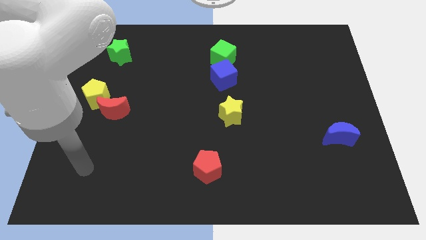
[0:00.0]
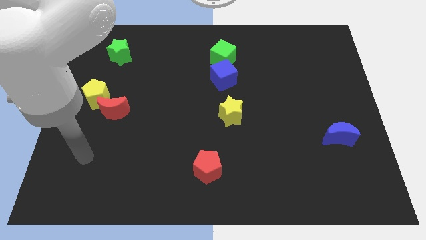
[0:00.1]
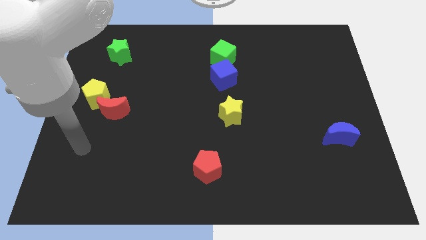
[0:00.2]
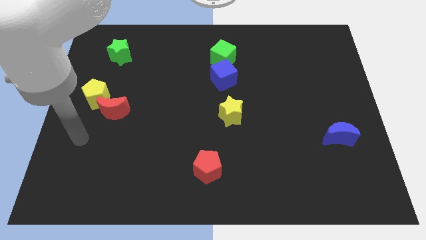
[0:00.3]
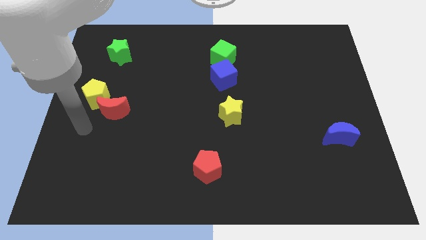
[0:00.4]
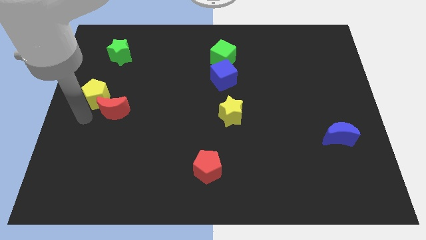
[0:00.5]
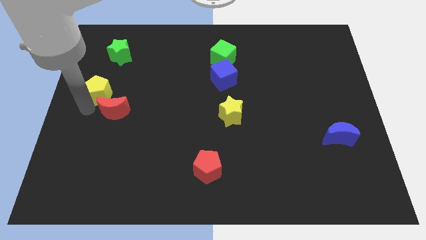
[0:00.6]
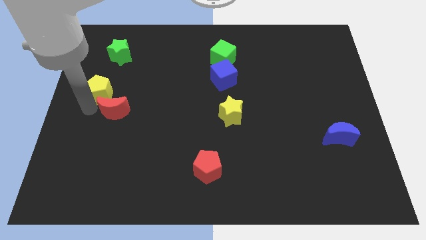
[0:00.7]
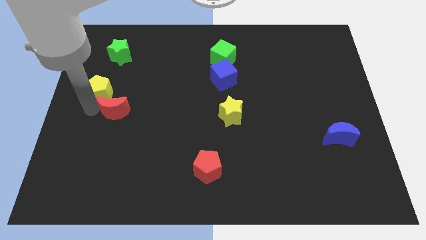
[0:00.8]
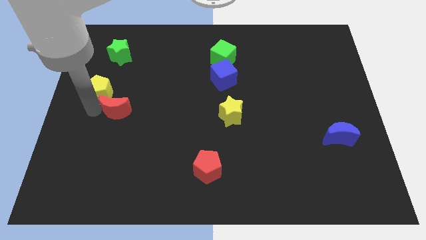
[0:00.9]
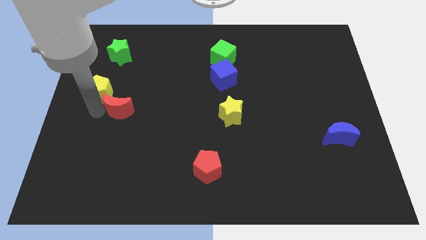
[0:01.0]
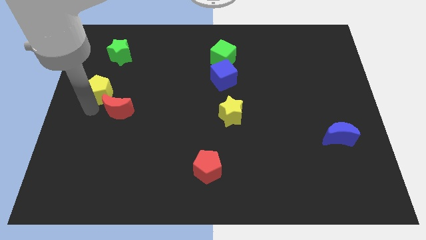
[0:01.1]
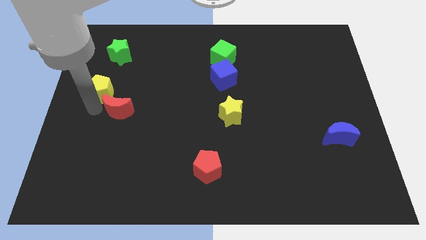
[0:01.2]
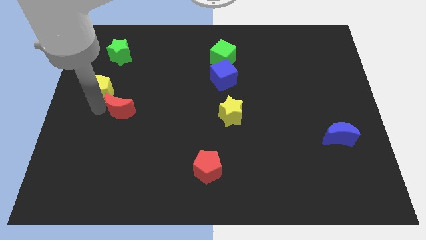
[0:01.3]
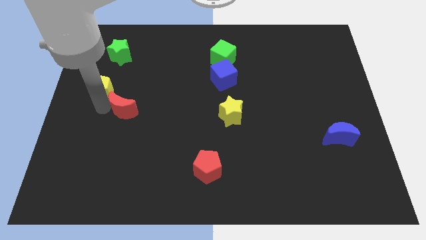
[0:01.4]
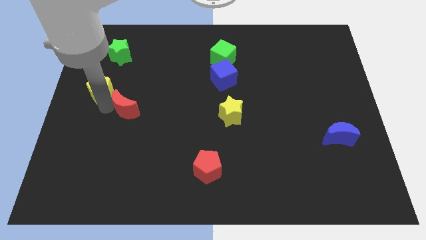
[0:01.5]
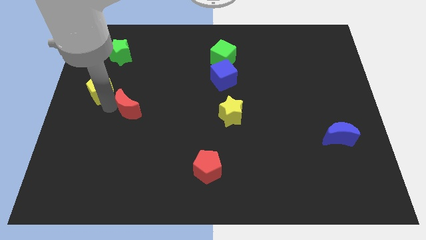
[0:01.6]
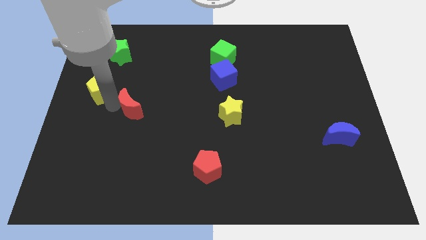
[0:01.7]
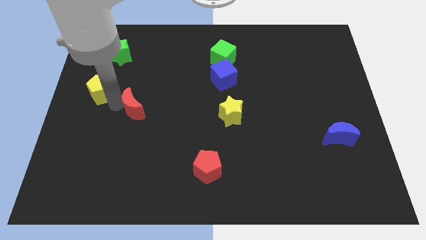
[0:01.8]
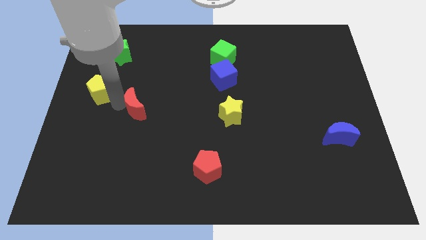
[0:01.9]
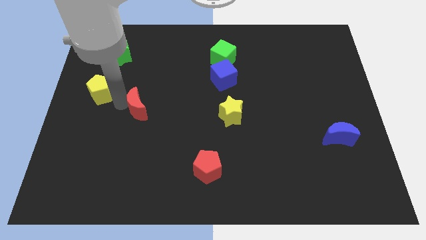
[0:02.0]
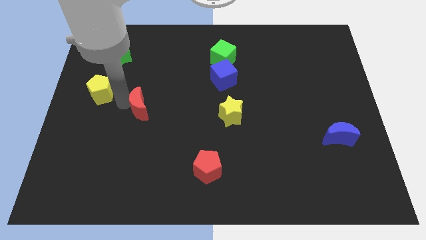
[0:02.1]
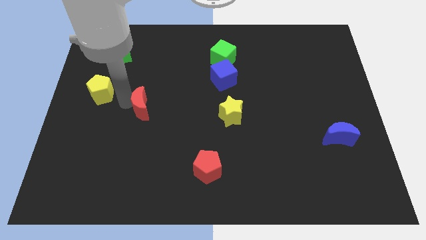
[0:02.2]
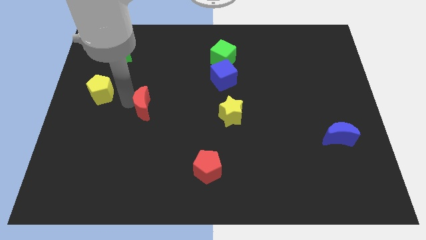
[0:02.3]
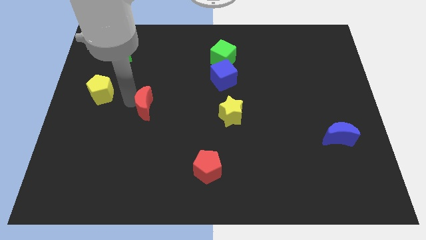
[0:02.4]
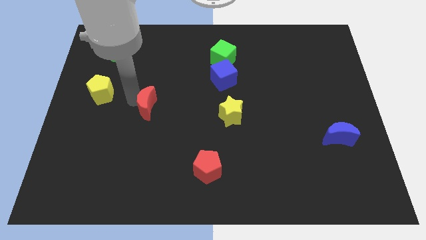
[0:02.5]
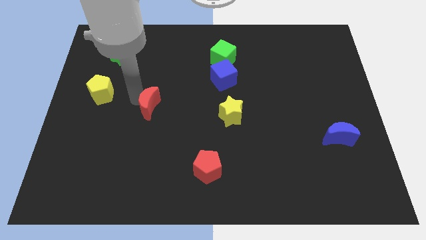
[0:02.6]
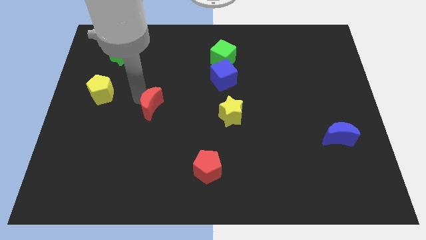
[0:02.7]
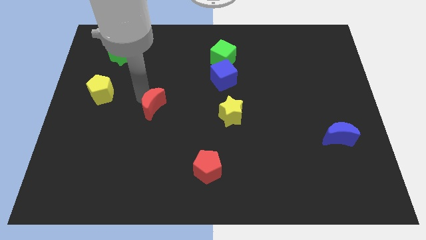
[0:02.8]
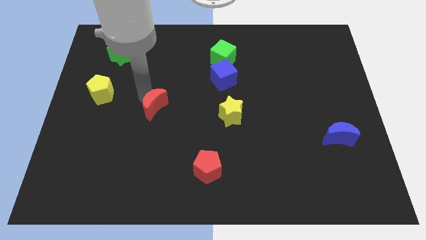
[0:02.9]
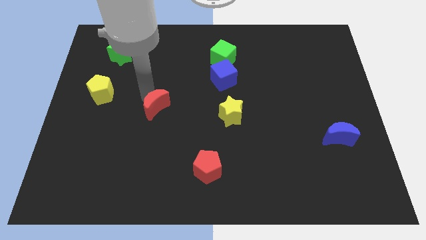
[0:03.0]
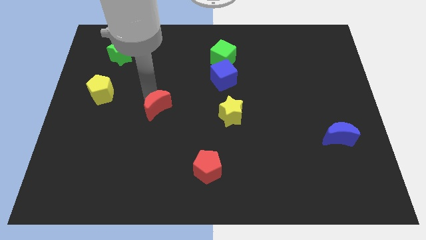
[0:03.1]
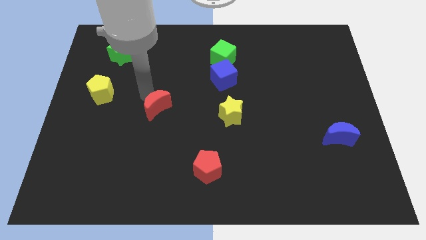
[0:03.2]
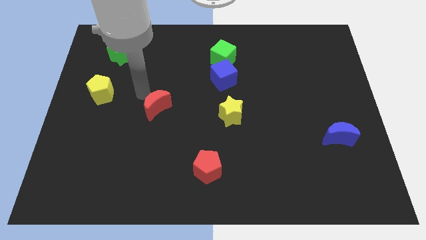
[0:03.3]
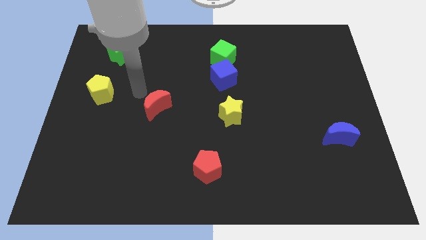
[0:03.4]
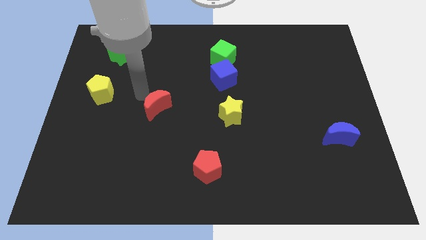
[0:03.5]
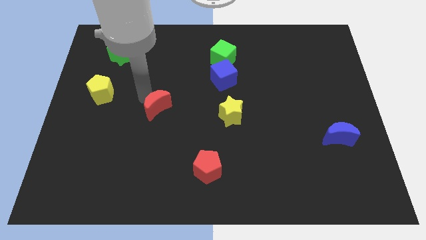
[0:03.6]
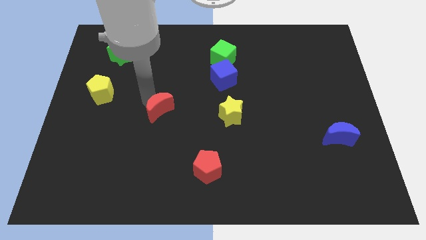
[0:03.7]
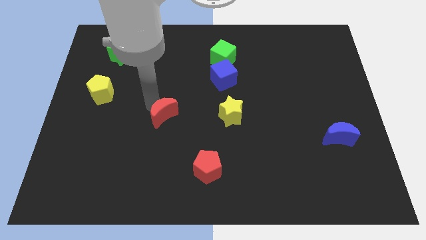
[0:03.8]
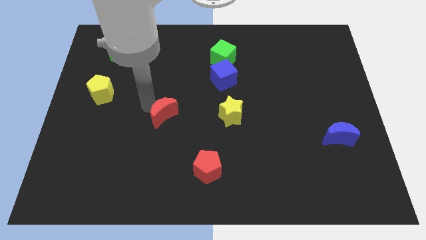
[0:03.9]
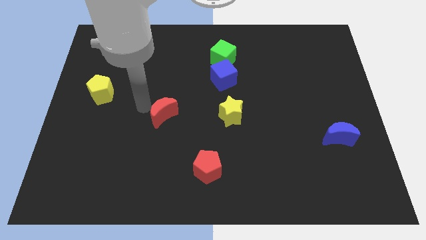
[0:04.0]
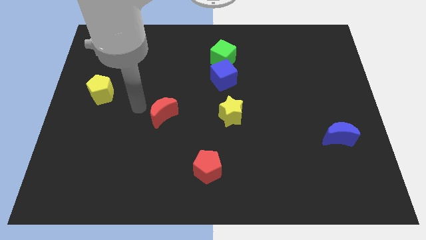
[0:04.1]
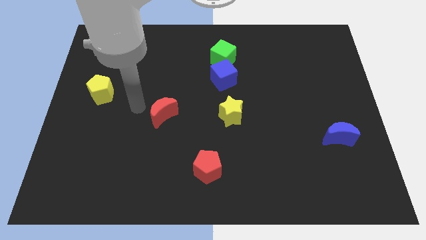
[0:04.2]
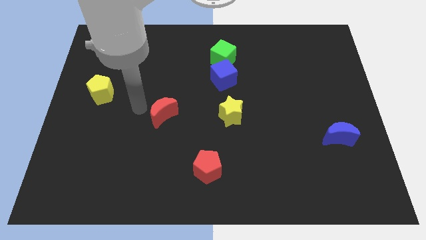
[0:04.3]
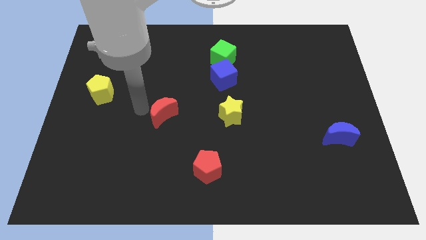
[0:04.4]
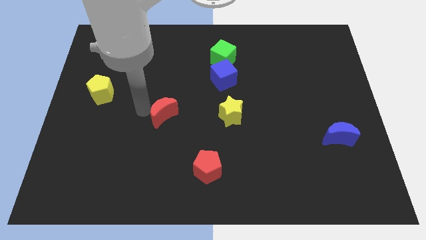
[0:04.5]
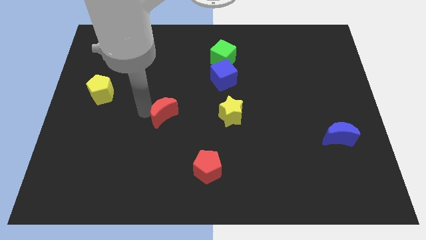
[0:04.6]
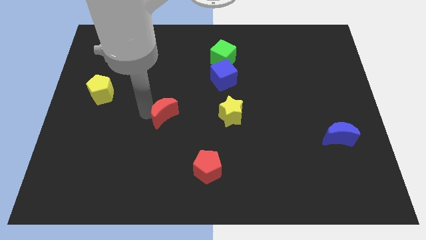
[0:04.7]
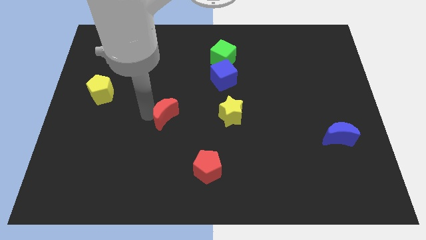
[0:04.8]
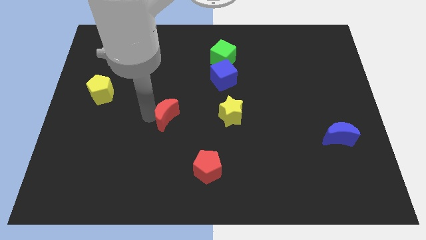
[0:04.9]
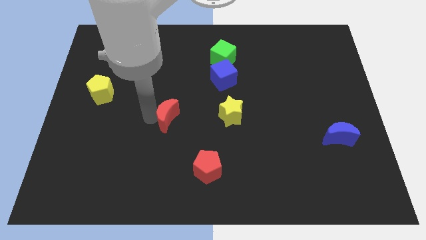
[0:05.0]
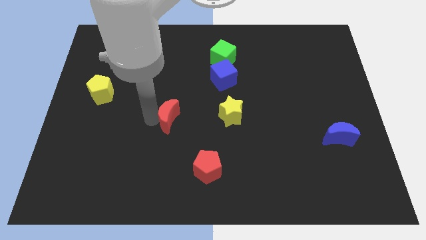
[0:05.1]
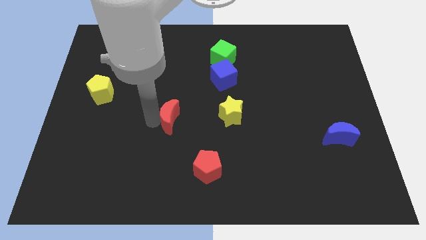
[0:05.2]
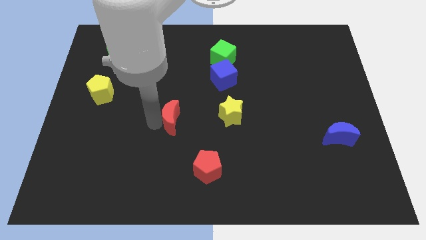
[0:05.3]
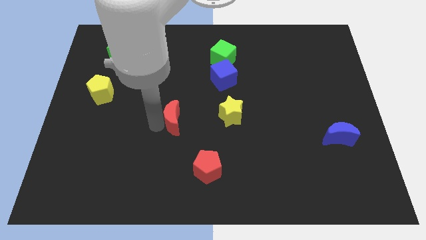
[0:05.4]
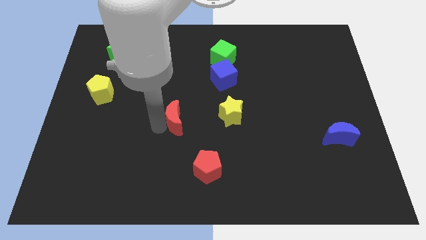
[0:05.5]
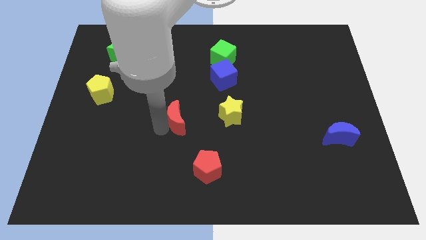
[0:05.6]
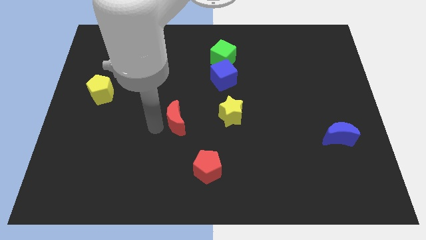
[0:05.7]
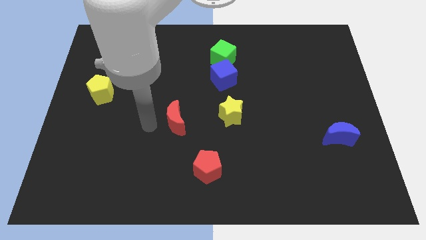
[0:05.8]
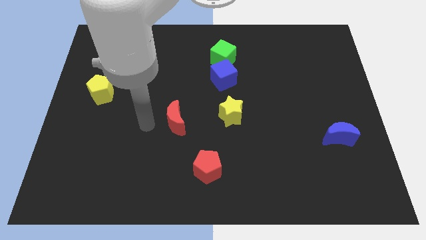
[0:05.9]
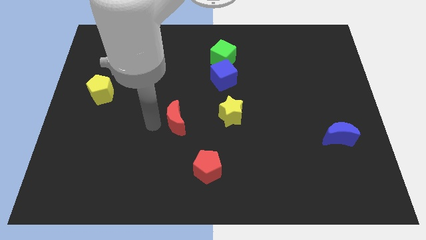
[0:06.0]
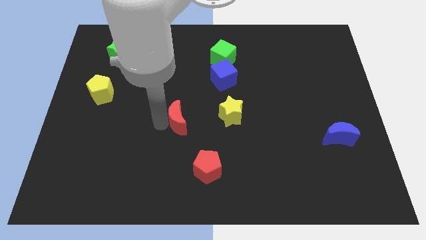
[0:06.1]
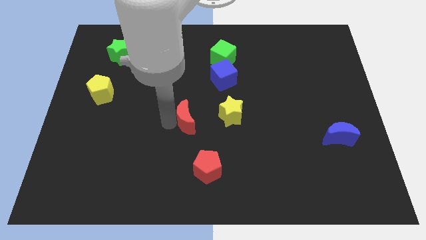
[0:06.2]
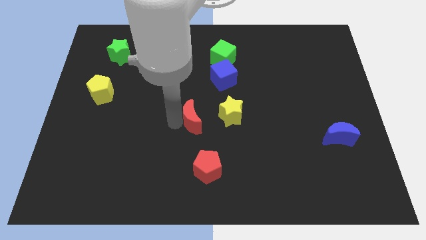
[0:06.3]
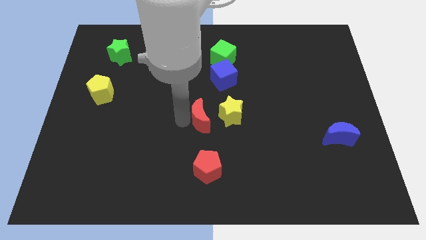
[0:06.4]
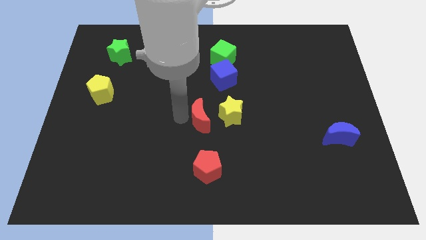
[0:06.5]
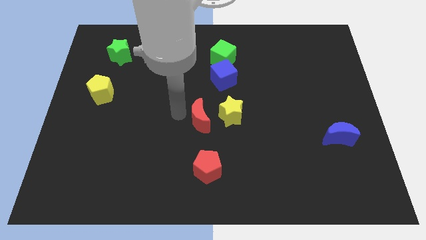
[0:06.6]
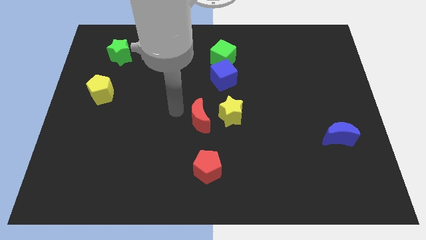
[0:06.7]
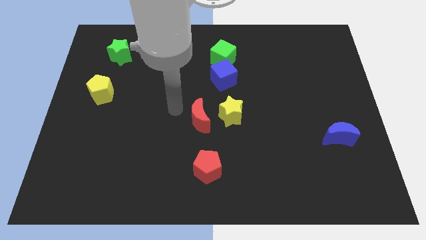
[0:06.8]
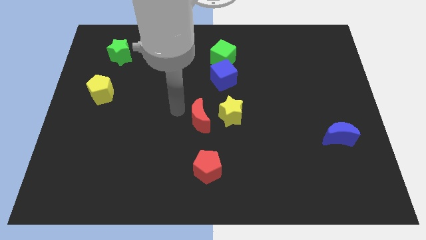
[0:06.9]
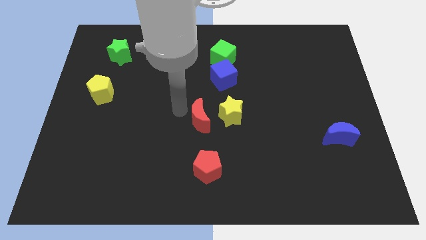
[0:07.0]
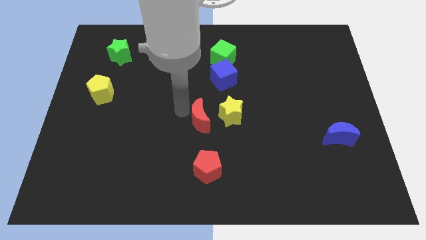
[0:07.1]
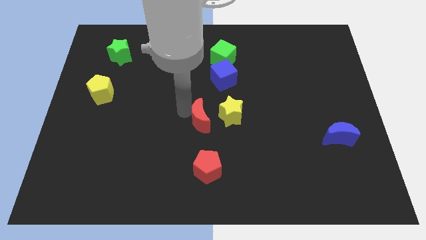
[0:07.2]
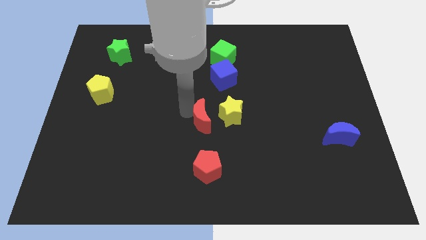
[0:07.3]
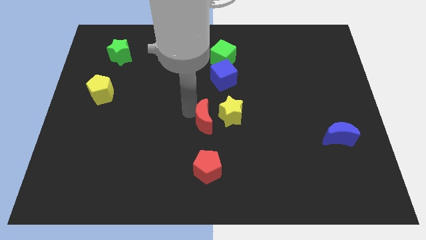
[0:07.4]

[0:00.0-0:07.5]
move the red moon below the blue cube

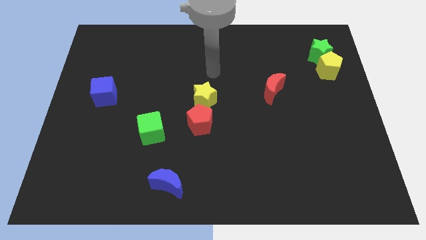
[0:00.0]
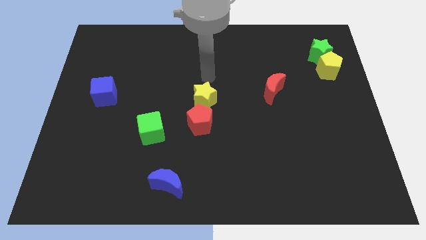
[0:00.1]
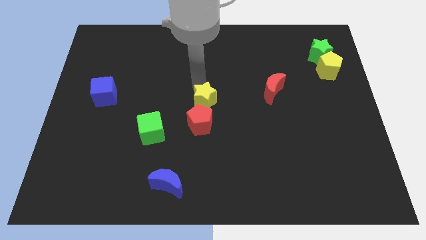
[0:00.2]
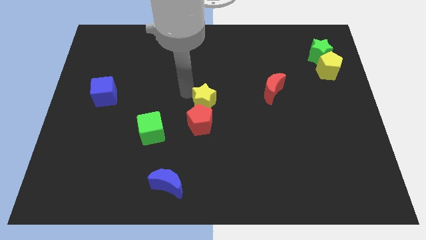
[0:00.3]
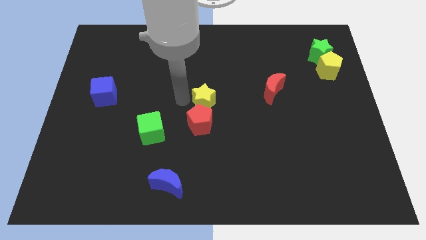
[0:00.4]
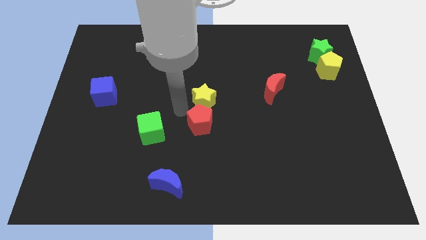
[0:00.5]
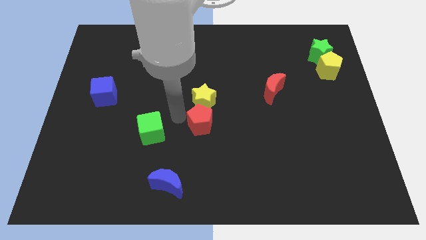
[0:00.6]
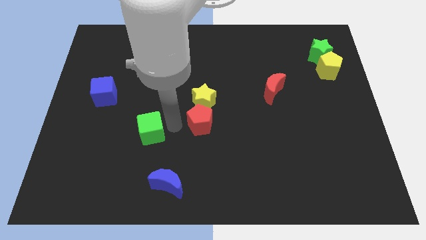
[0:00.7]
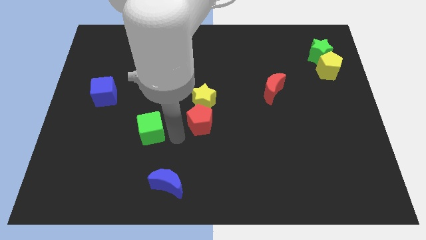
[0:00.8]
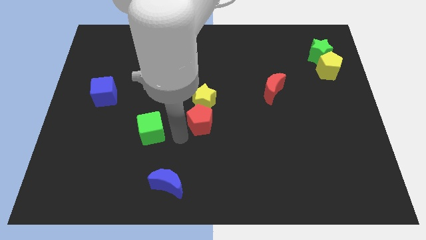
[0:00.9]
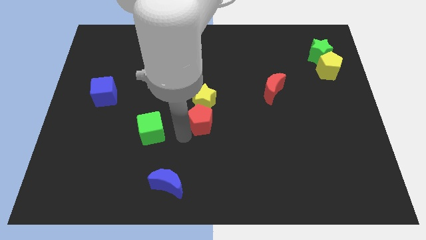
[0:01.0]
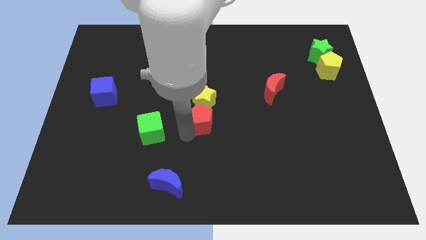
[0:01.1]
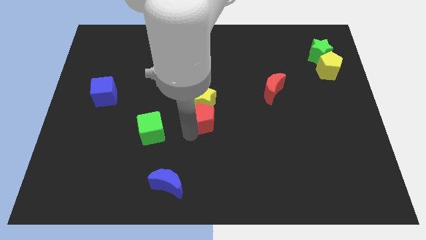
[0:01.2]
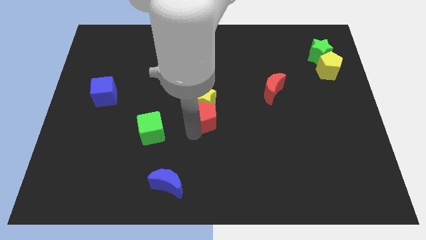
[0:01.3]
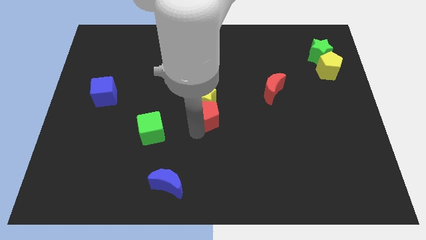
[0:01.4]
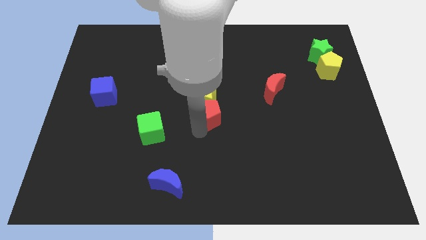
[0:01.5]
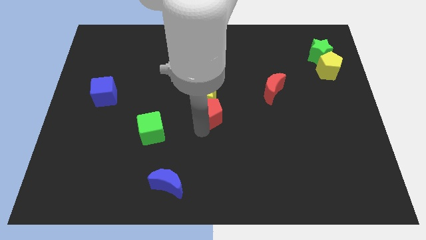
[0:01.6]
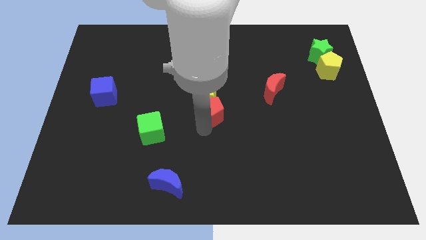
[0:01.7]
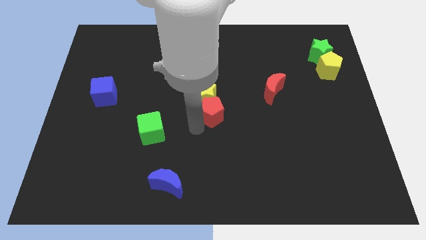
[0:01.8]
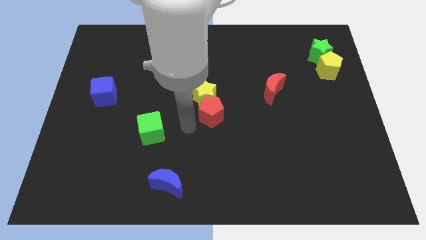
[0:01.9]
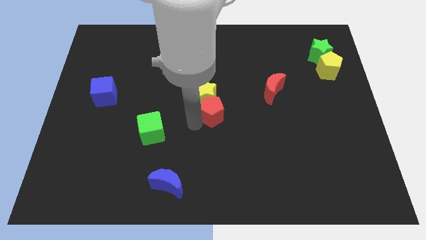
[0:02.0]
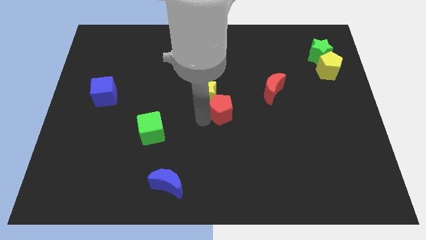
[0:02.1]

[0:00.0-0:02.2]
move the red pentagon to the right of the yellow star
